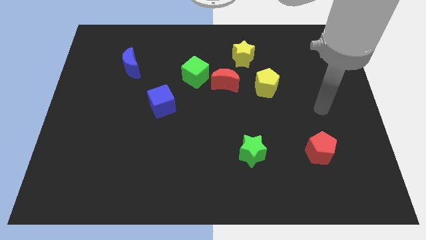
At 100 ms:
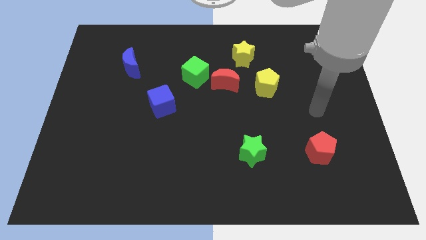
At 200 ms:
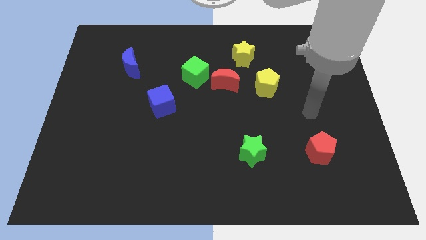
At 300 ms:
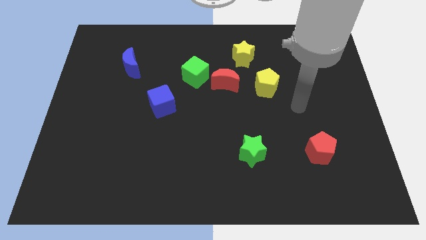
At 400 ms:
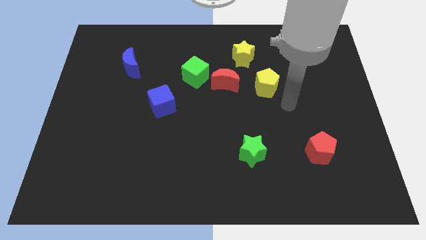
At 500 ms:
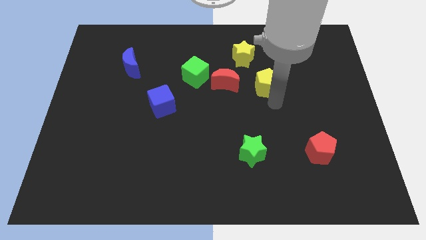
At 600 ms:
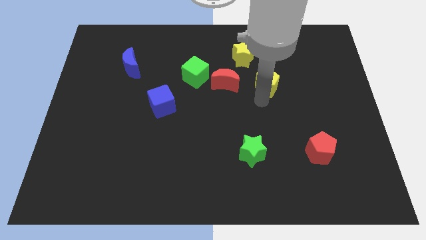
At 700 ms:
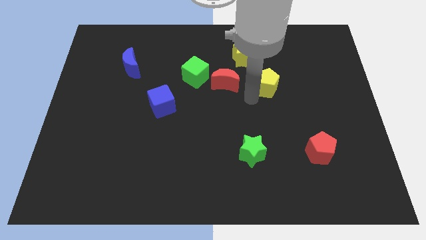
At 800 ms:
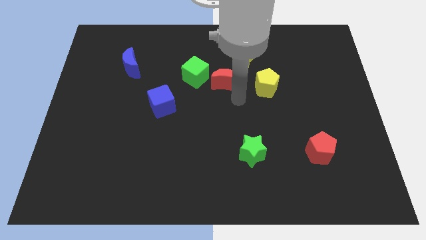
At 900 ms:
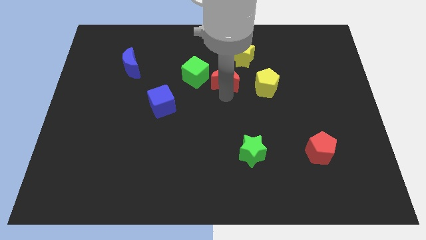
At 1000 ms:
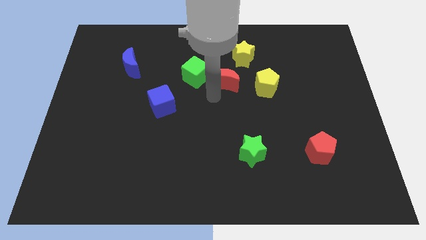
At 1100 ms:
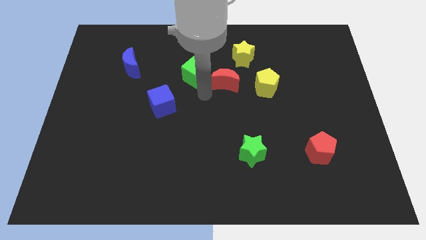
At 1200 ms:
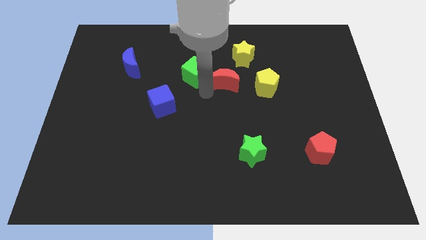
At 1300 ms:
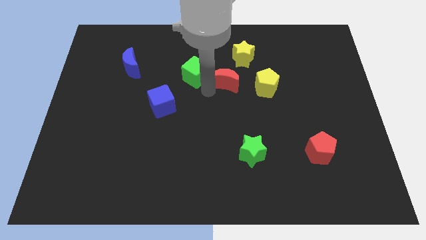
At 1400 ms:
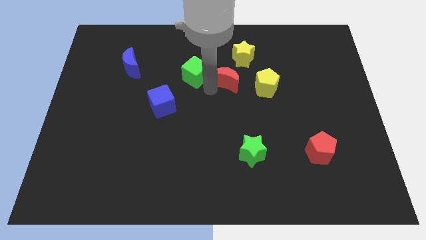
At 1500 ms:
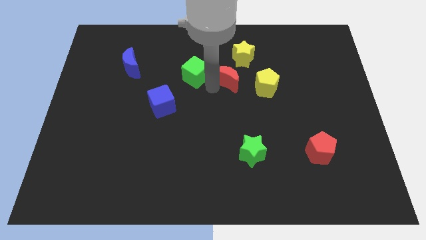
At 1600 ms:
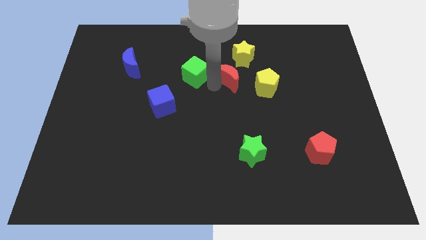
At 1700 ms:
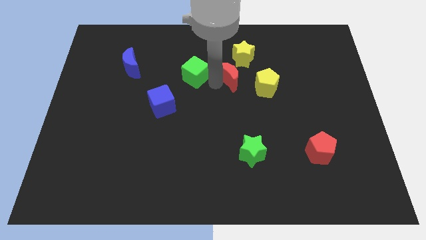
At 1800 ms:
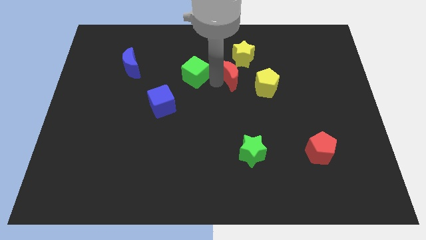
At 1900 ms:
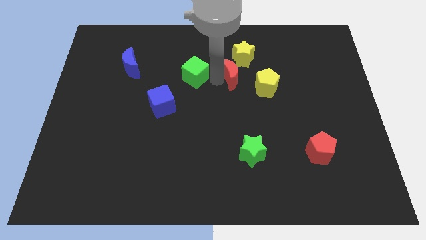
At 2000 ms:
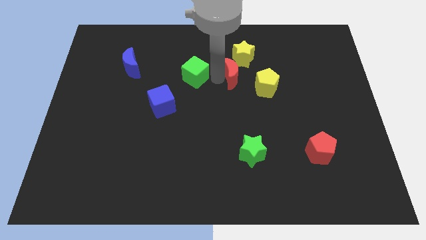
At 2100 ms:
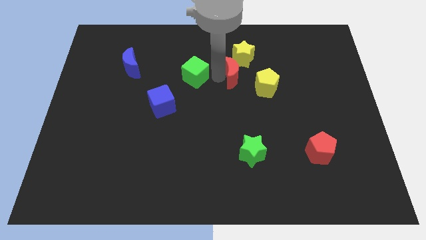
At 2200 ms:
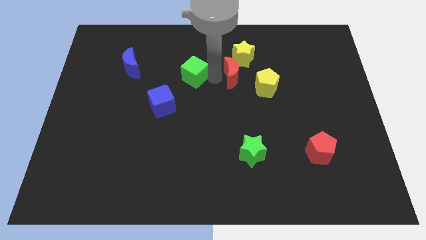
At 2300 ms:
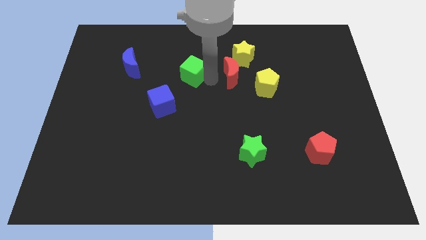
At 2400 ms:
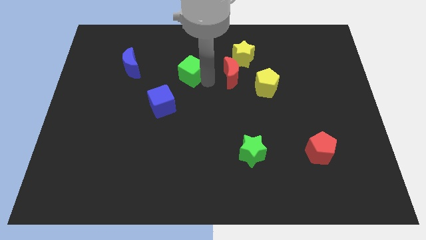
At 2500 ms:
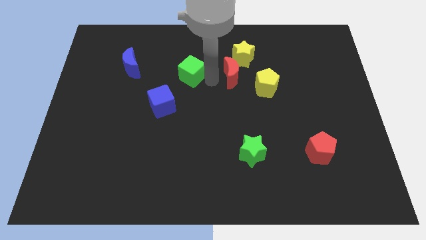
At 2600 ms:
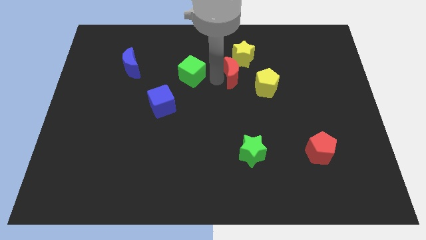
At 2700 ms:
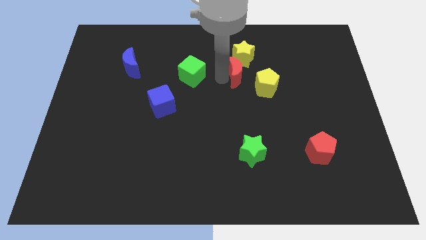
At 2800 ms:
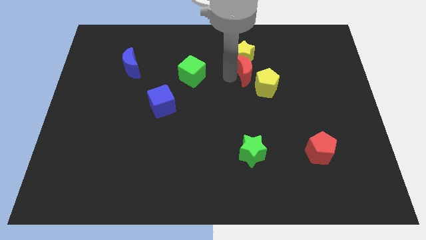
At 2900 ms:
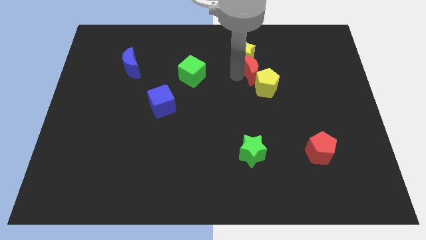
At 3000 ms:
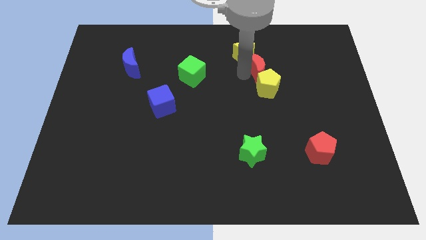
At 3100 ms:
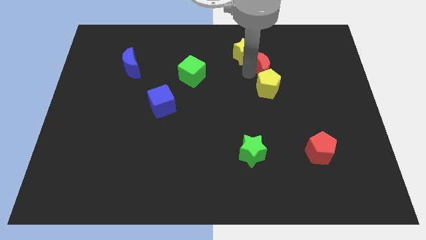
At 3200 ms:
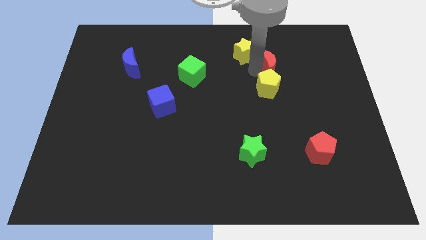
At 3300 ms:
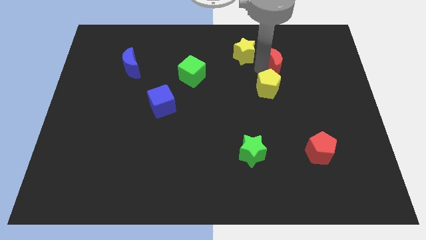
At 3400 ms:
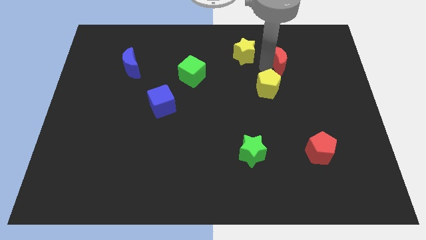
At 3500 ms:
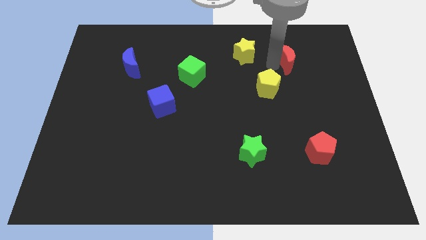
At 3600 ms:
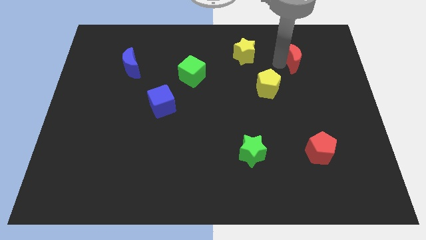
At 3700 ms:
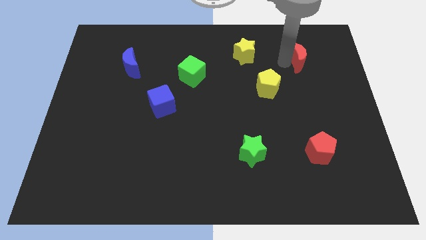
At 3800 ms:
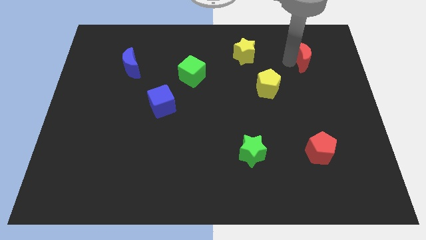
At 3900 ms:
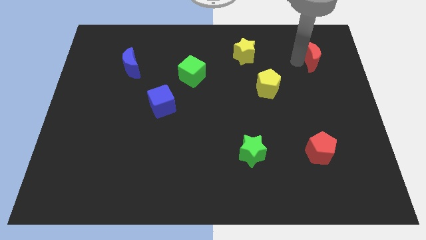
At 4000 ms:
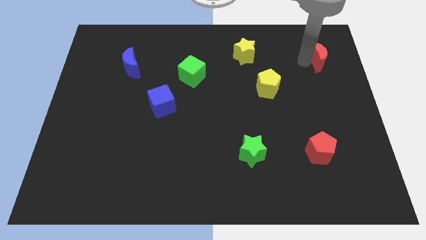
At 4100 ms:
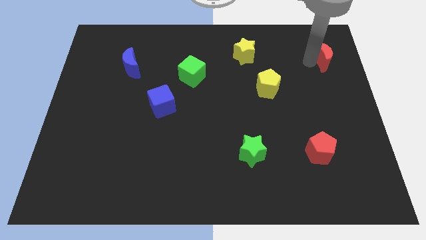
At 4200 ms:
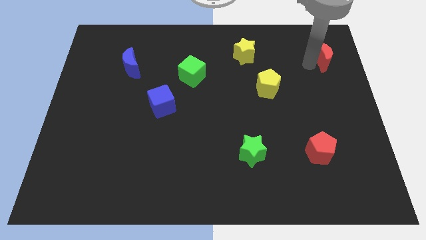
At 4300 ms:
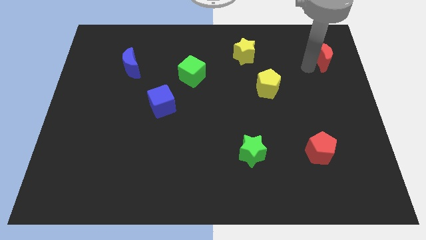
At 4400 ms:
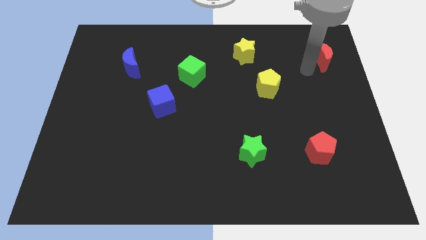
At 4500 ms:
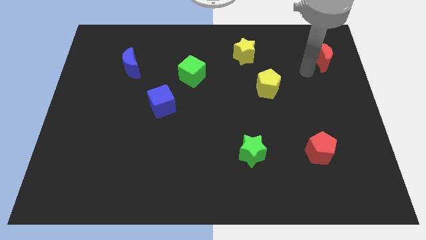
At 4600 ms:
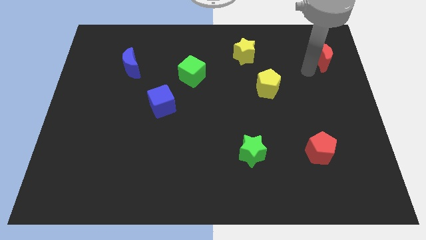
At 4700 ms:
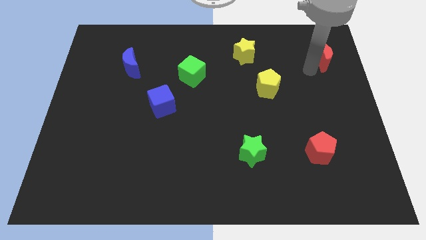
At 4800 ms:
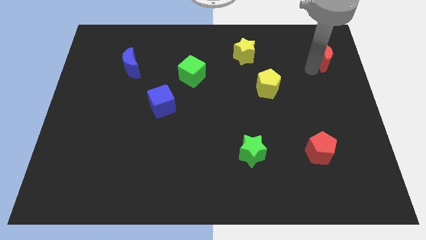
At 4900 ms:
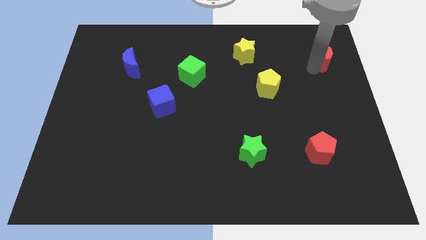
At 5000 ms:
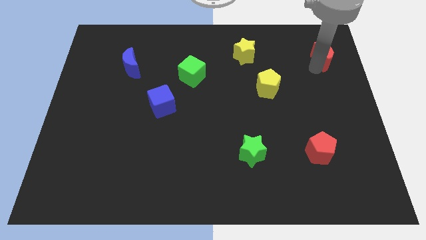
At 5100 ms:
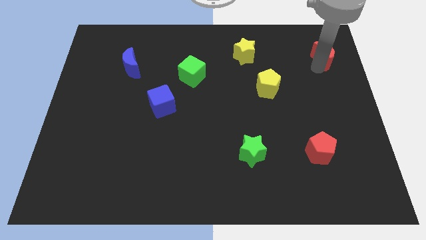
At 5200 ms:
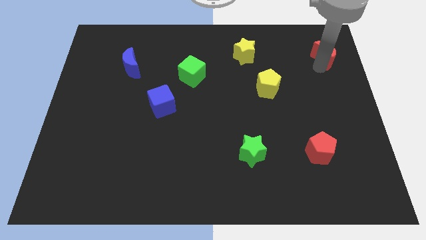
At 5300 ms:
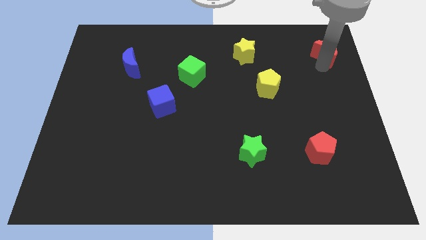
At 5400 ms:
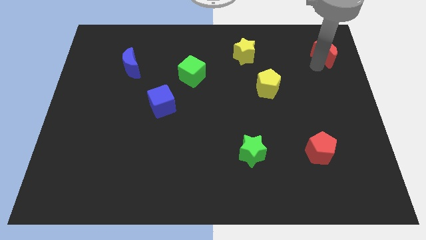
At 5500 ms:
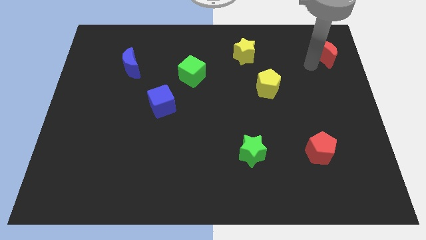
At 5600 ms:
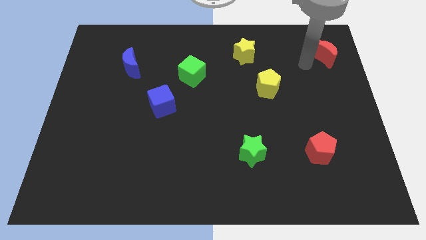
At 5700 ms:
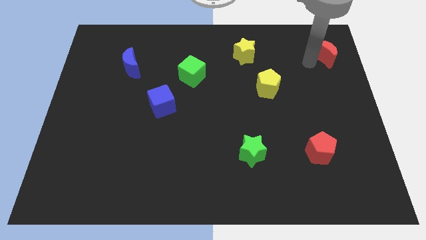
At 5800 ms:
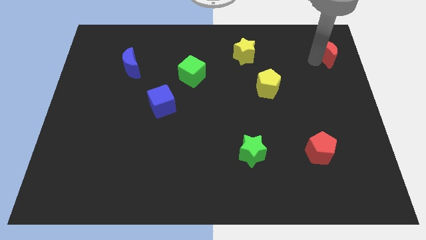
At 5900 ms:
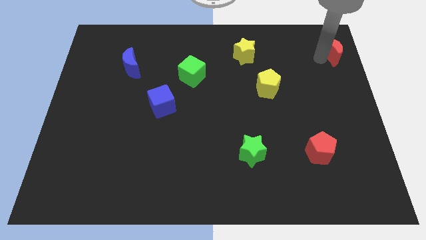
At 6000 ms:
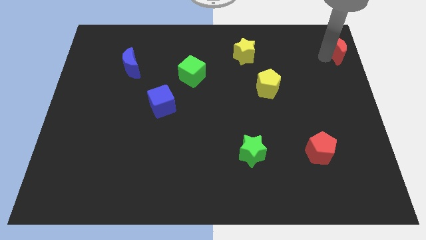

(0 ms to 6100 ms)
move the red moon to the top right of the board

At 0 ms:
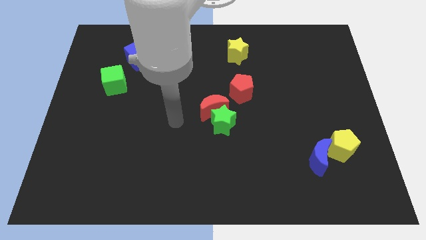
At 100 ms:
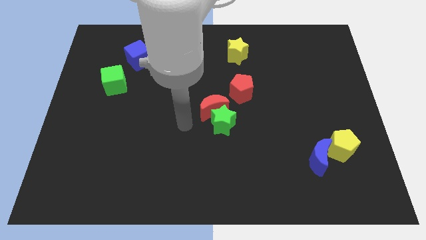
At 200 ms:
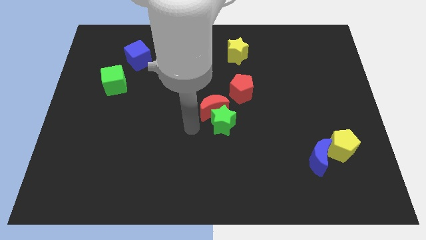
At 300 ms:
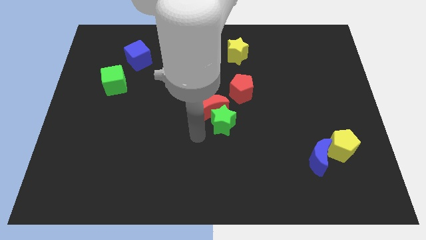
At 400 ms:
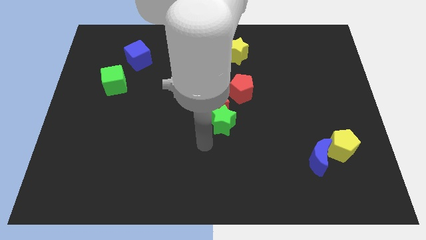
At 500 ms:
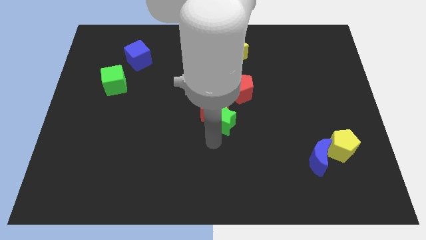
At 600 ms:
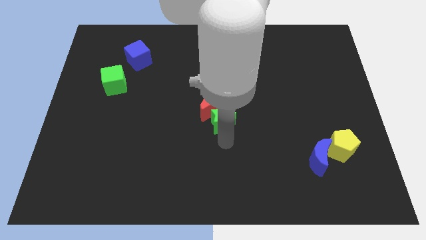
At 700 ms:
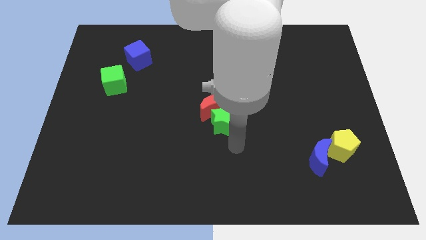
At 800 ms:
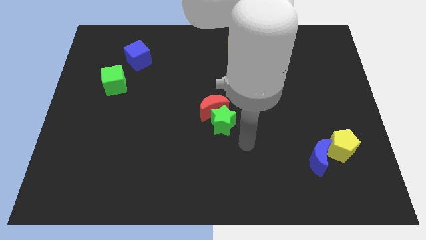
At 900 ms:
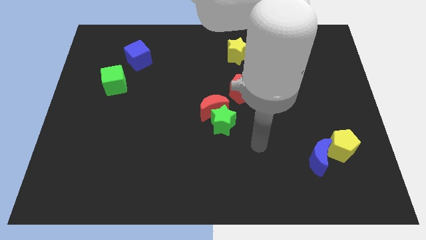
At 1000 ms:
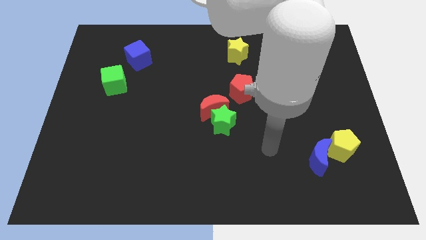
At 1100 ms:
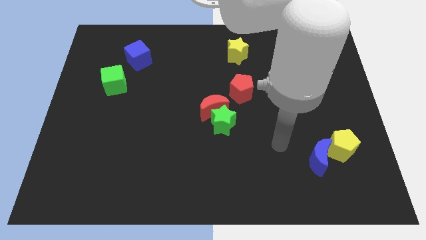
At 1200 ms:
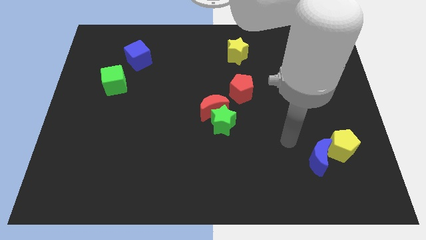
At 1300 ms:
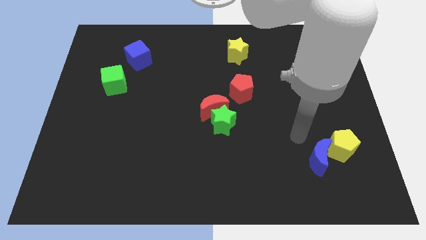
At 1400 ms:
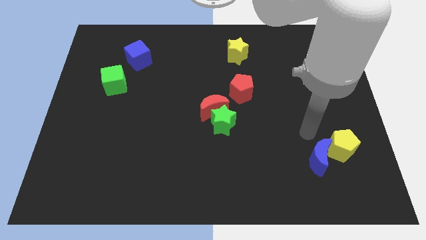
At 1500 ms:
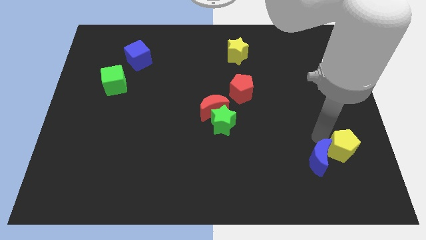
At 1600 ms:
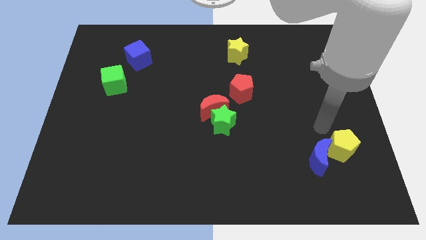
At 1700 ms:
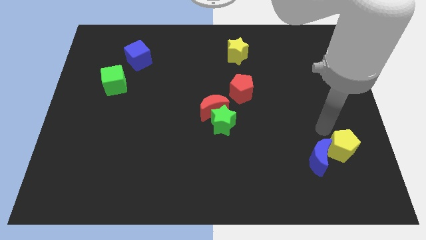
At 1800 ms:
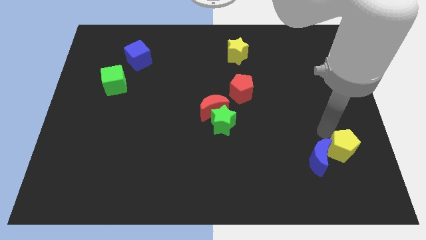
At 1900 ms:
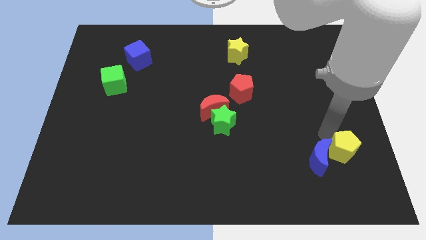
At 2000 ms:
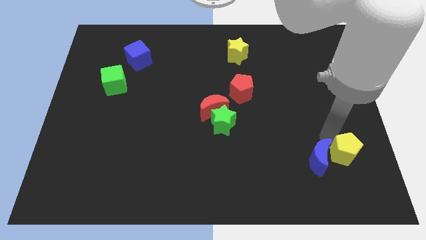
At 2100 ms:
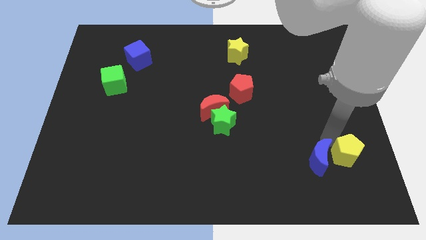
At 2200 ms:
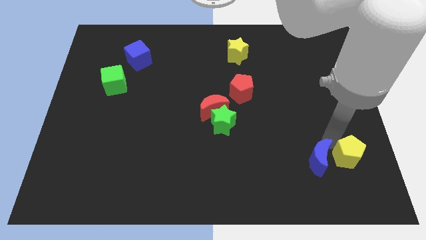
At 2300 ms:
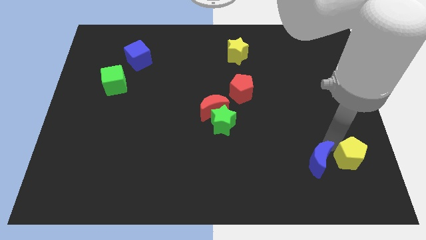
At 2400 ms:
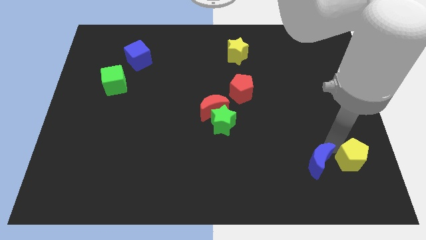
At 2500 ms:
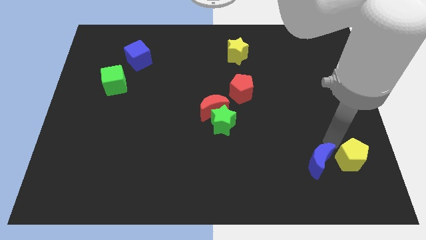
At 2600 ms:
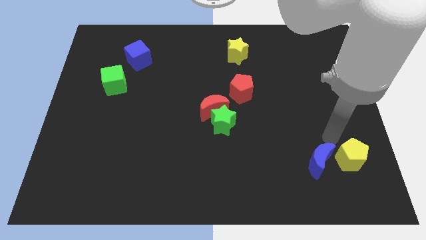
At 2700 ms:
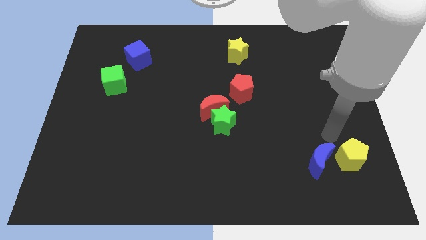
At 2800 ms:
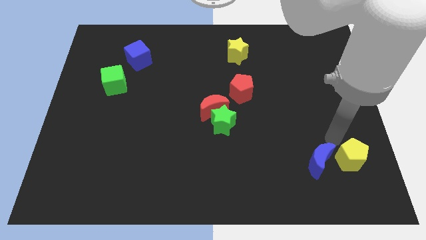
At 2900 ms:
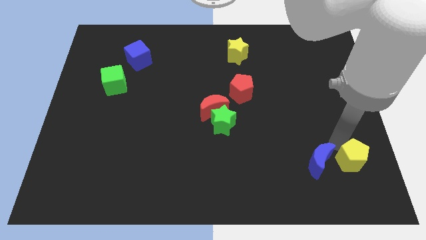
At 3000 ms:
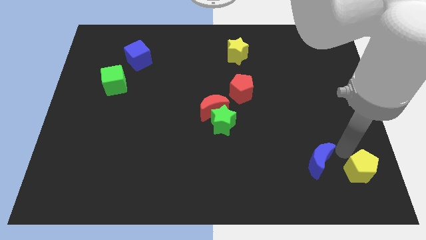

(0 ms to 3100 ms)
move the yellow pentagon to the lower right corner
